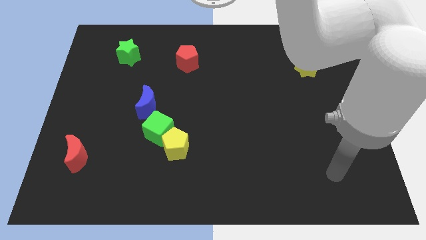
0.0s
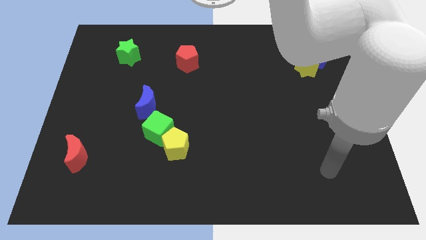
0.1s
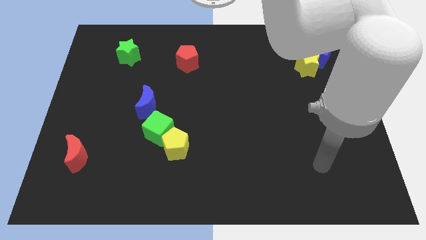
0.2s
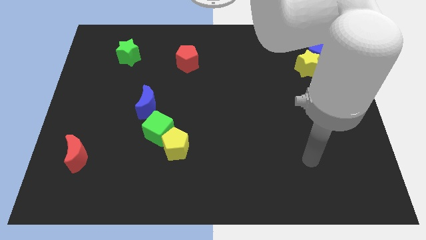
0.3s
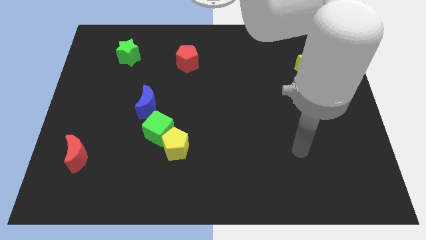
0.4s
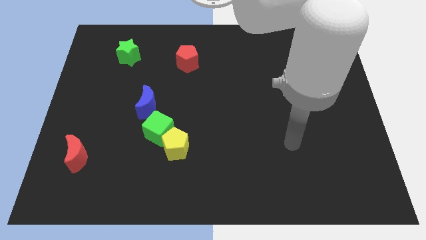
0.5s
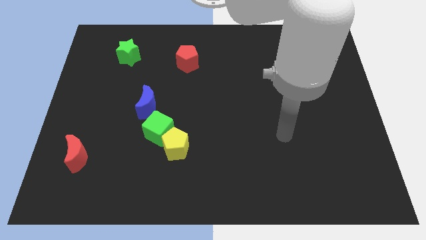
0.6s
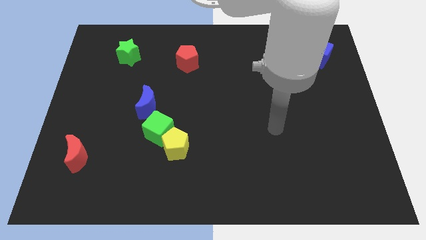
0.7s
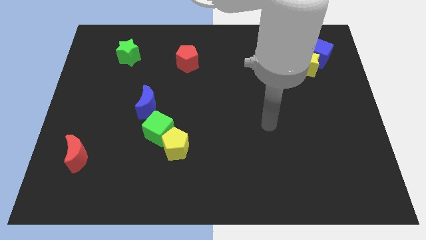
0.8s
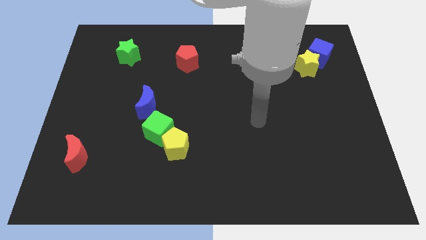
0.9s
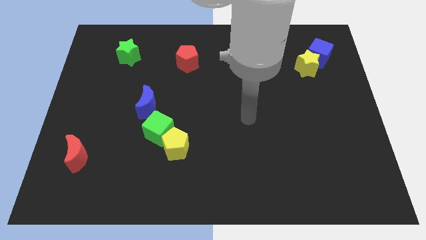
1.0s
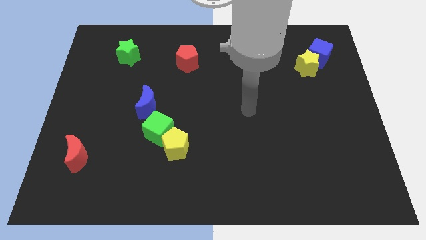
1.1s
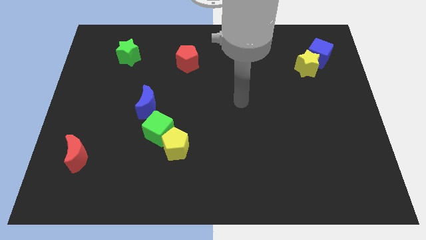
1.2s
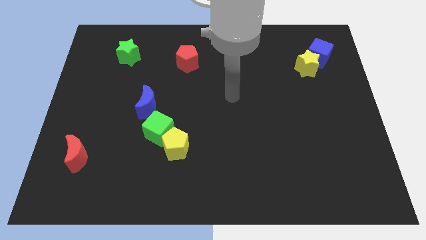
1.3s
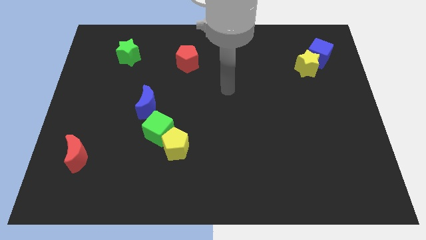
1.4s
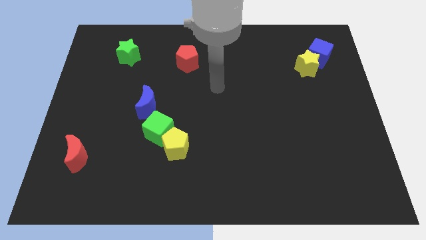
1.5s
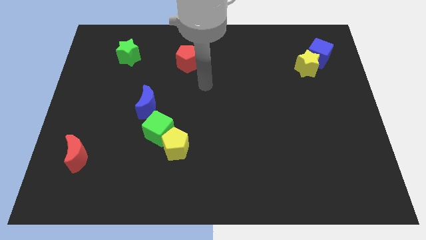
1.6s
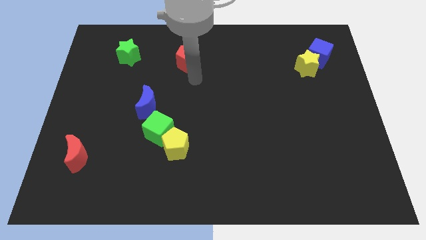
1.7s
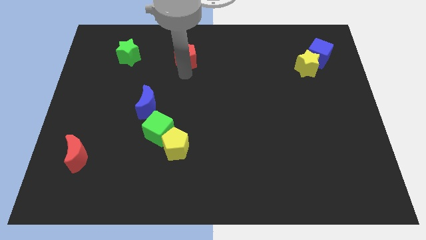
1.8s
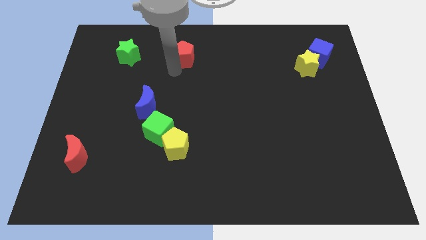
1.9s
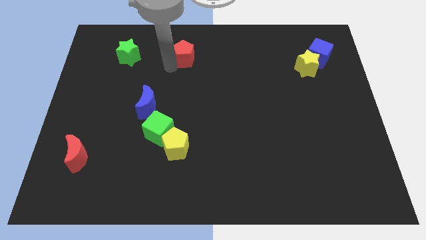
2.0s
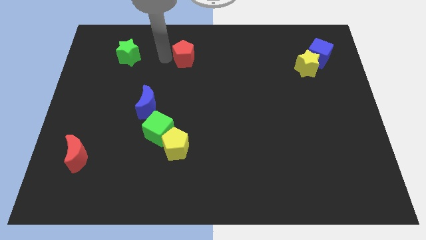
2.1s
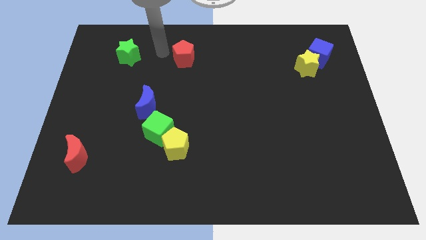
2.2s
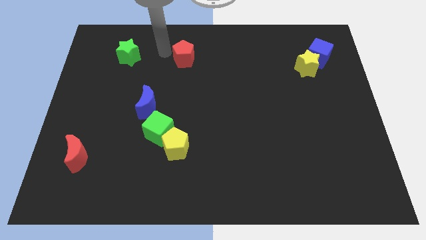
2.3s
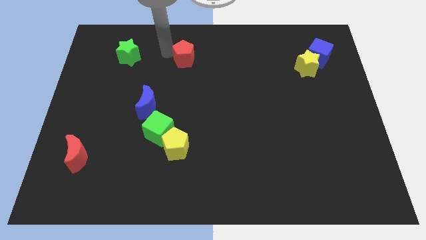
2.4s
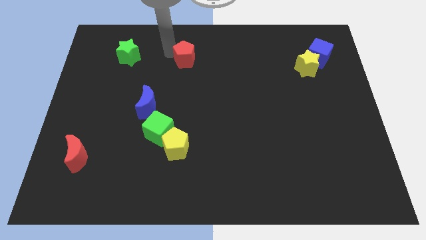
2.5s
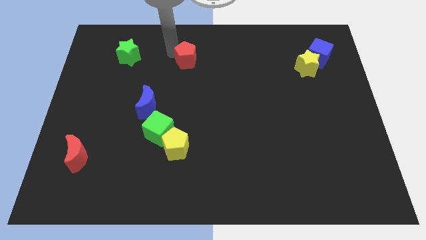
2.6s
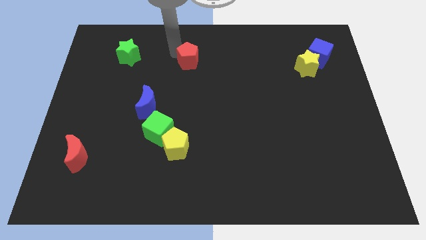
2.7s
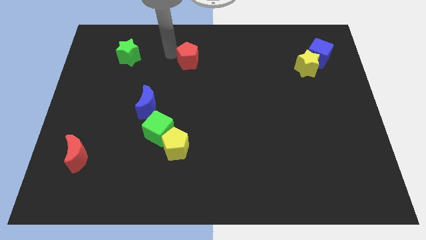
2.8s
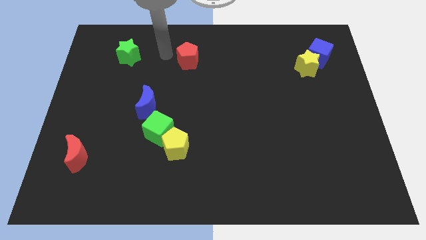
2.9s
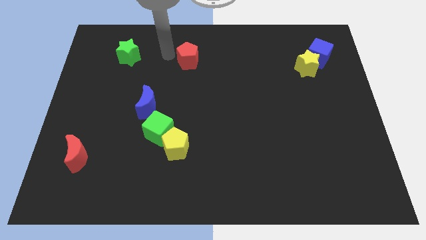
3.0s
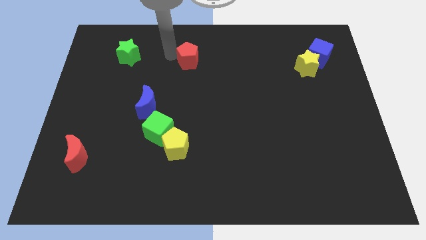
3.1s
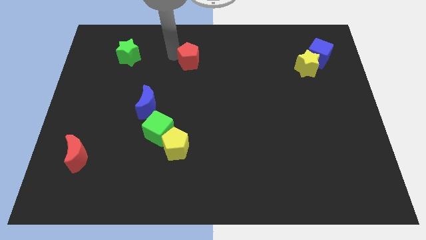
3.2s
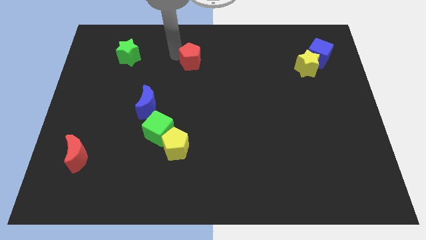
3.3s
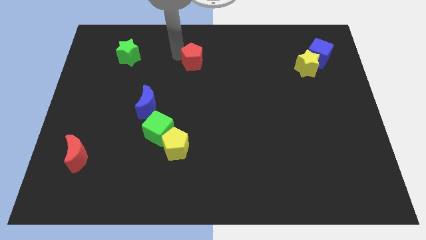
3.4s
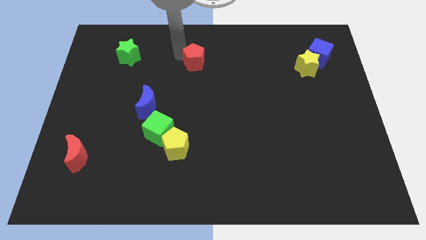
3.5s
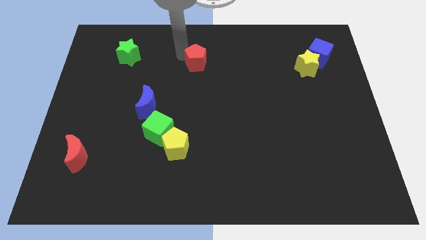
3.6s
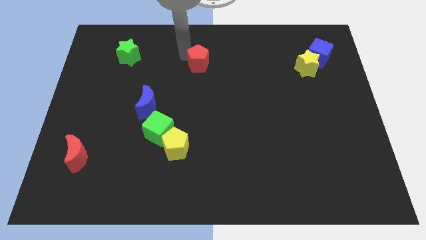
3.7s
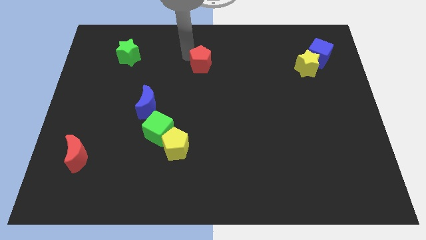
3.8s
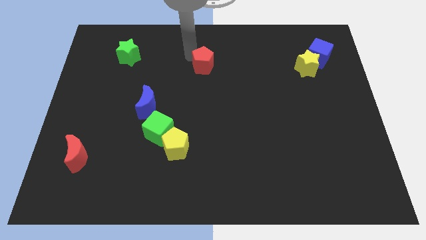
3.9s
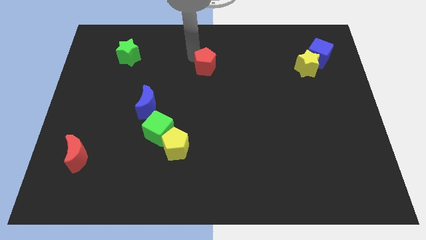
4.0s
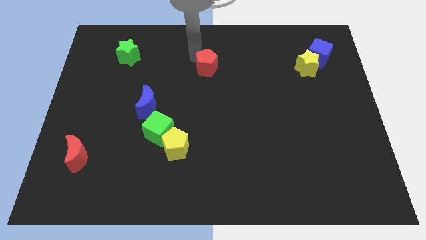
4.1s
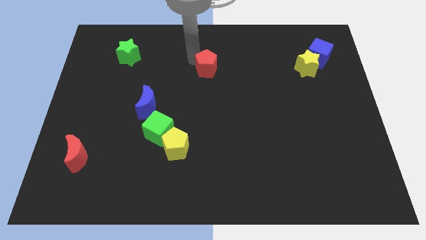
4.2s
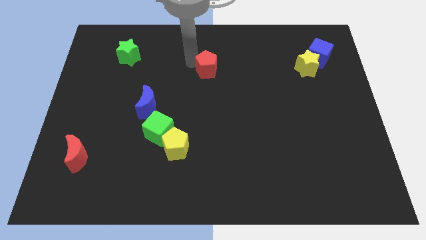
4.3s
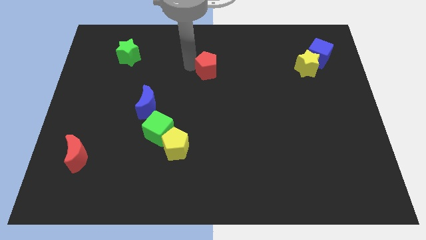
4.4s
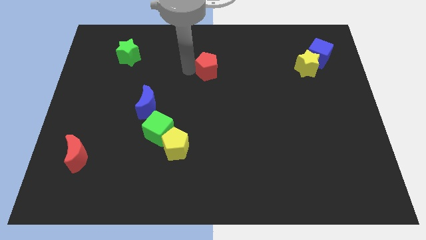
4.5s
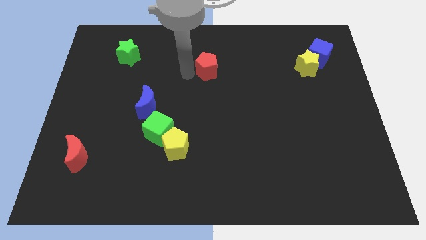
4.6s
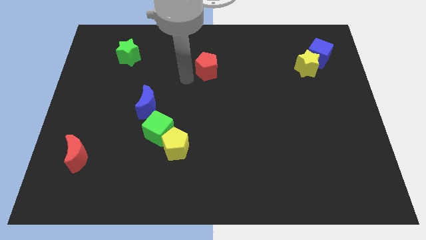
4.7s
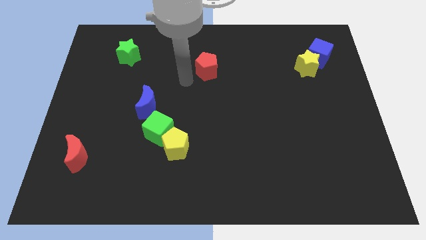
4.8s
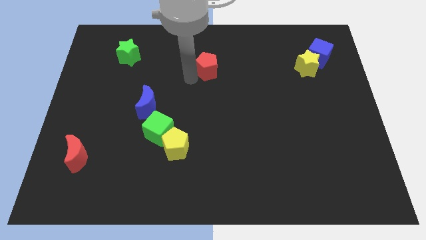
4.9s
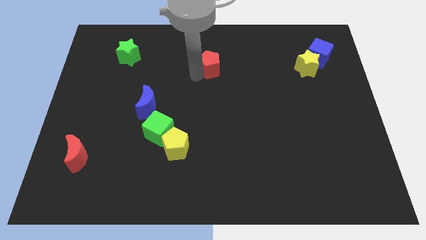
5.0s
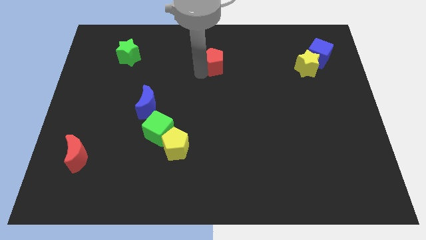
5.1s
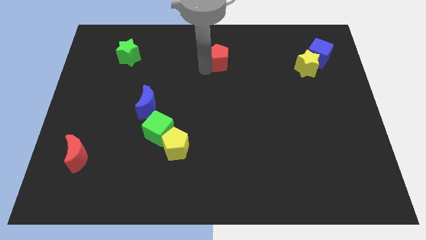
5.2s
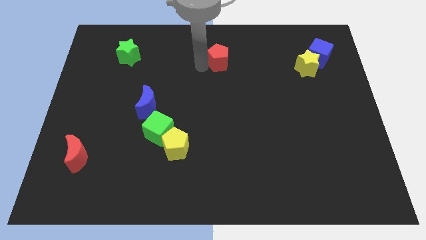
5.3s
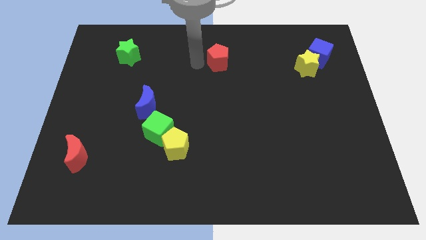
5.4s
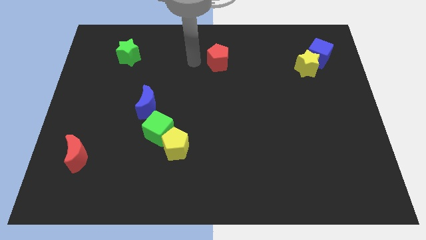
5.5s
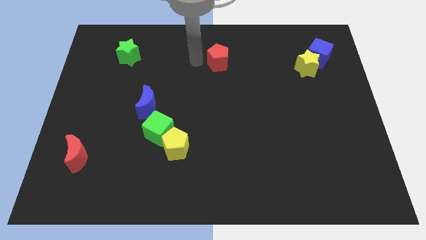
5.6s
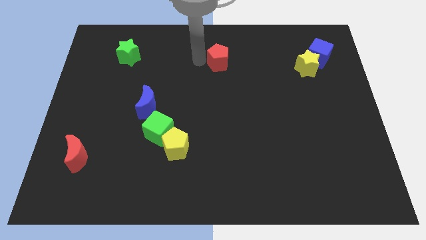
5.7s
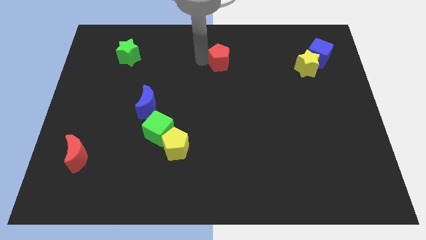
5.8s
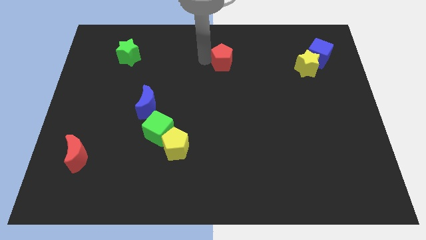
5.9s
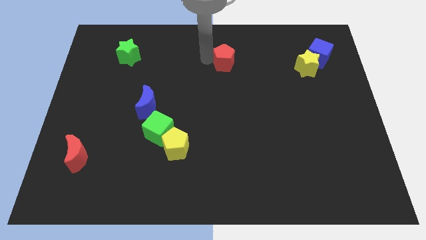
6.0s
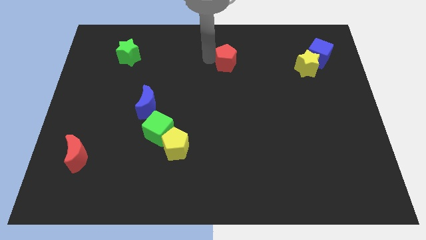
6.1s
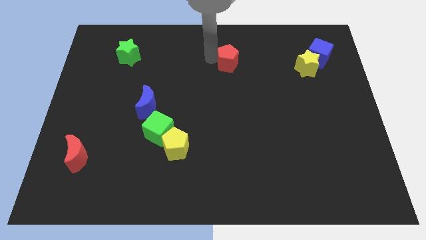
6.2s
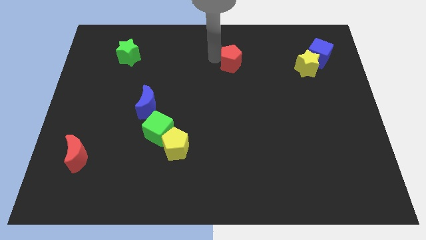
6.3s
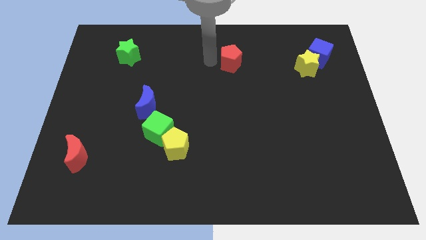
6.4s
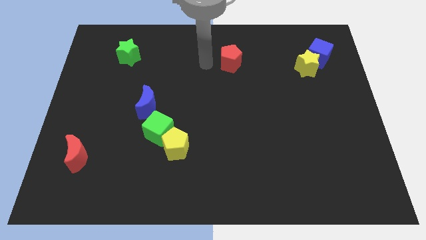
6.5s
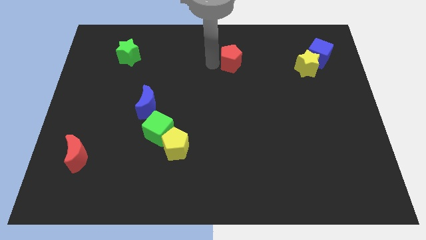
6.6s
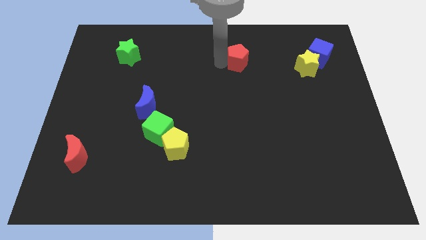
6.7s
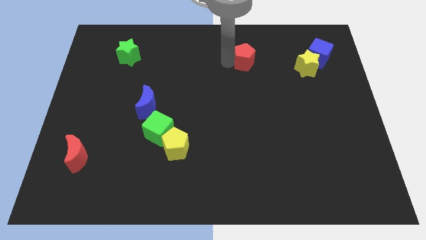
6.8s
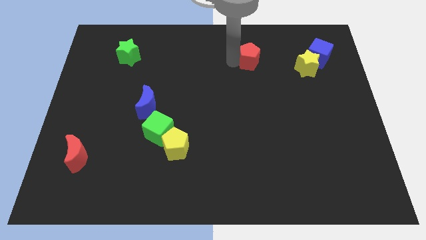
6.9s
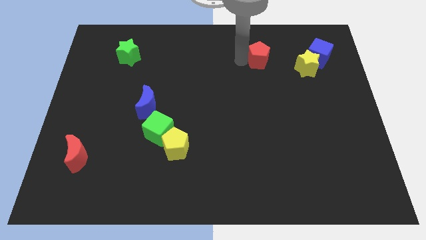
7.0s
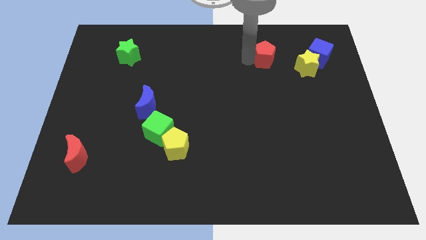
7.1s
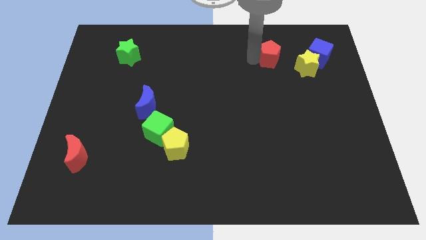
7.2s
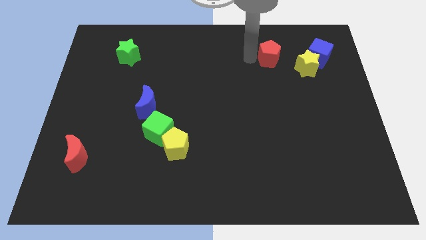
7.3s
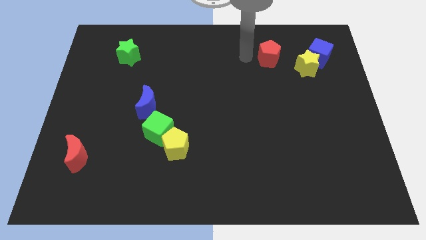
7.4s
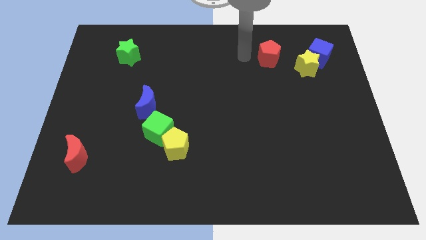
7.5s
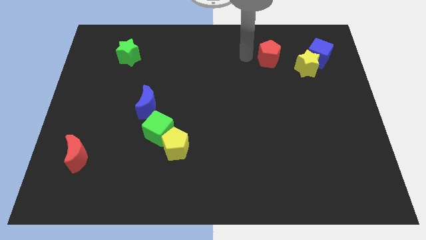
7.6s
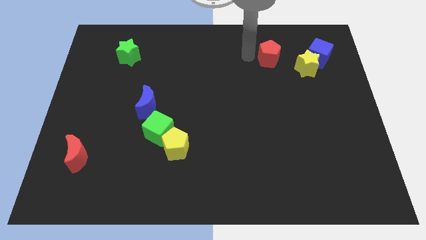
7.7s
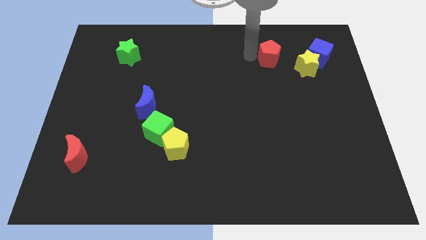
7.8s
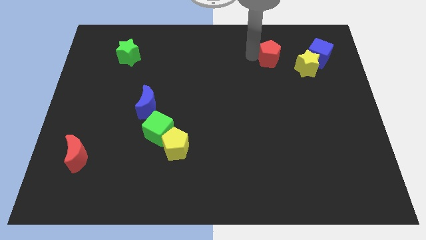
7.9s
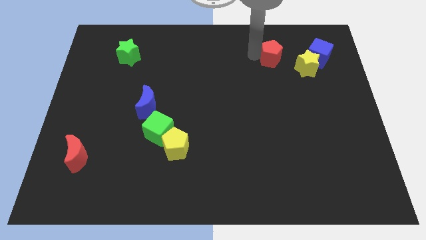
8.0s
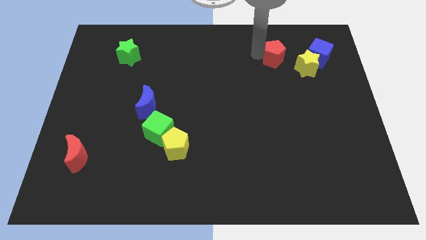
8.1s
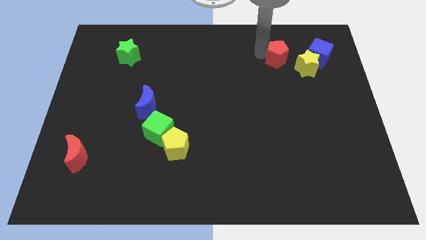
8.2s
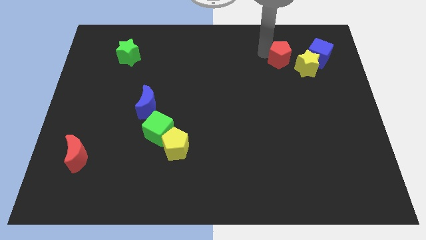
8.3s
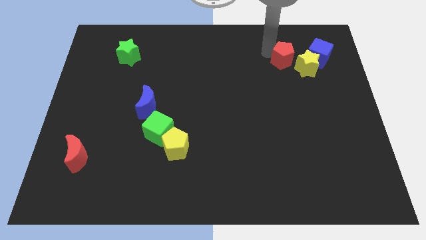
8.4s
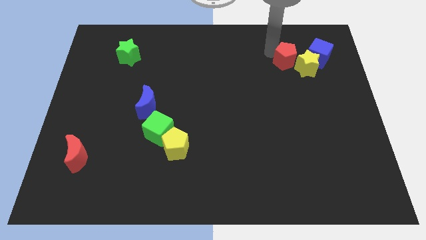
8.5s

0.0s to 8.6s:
push the red pentagon close to the yellow star
